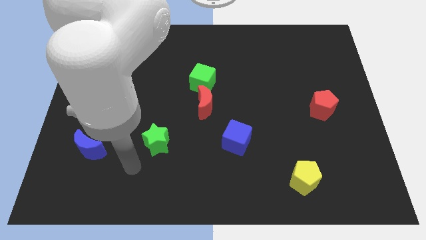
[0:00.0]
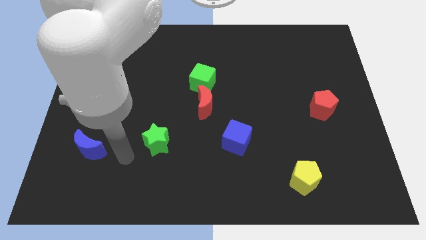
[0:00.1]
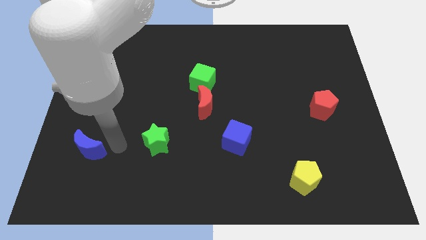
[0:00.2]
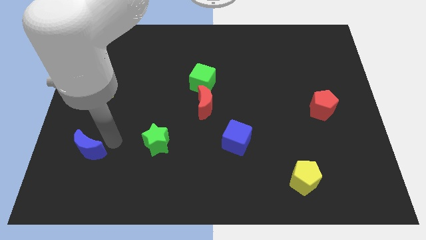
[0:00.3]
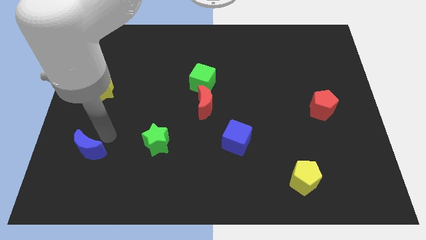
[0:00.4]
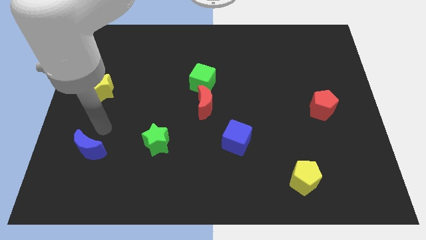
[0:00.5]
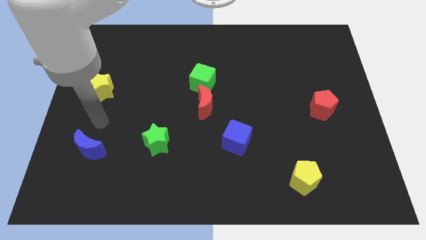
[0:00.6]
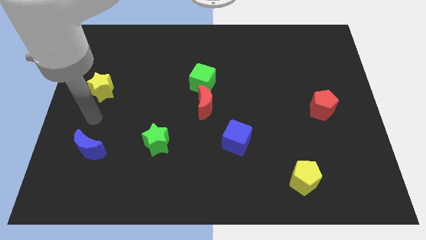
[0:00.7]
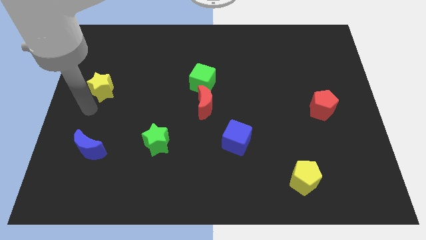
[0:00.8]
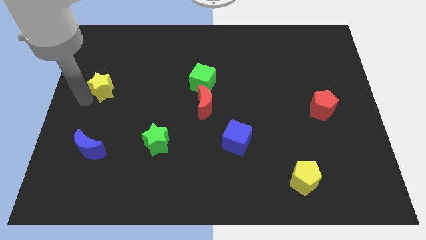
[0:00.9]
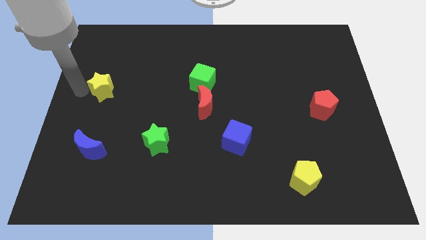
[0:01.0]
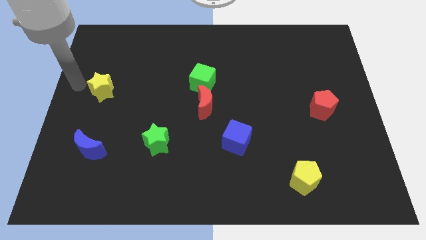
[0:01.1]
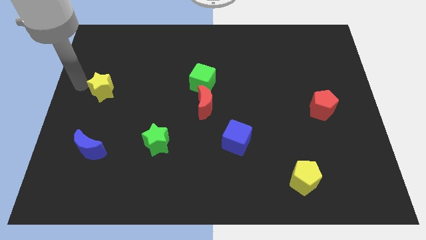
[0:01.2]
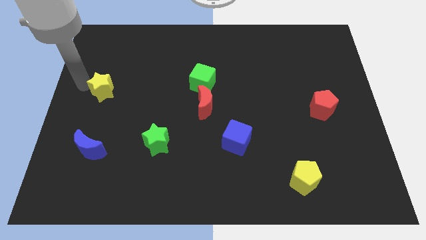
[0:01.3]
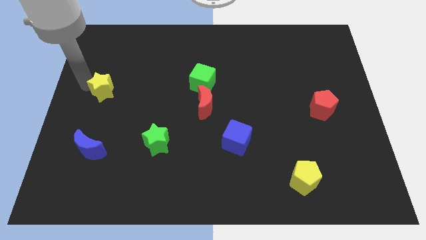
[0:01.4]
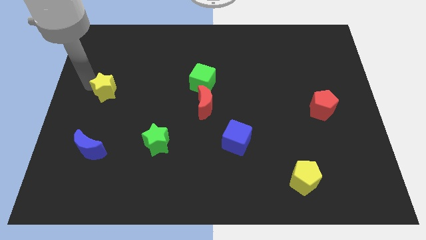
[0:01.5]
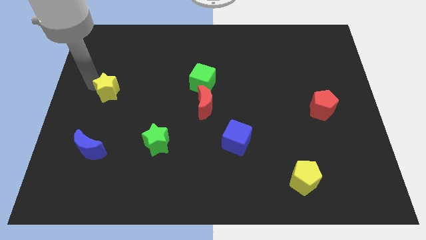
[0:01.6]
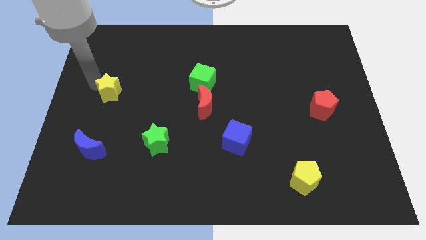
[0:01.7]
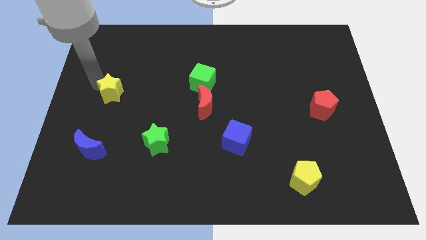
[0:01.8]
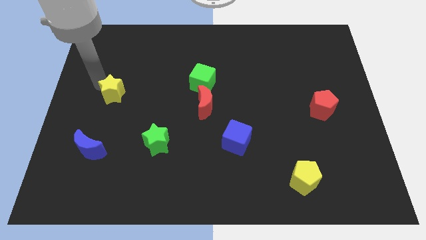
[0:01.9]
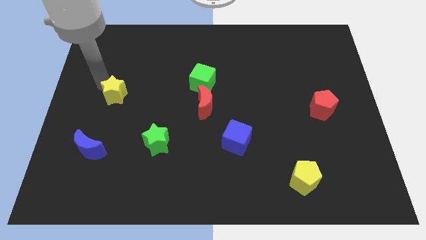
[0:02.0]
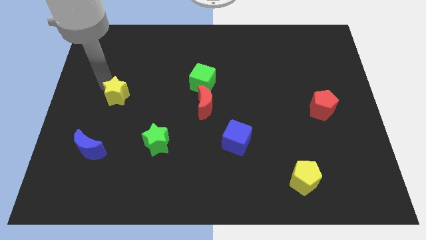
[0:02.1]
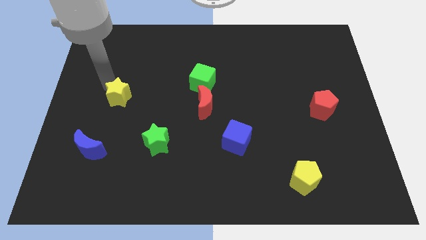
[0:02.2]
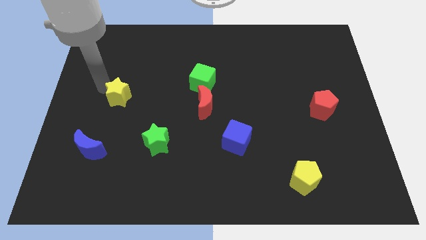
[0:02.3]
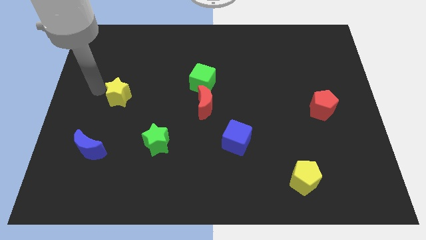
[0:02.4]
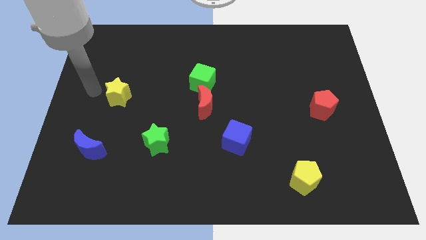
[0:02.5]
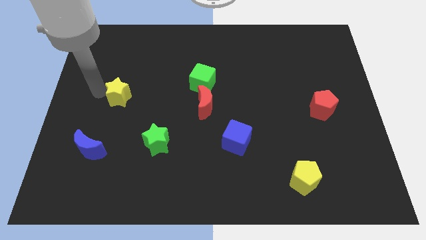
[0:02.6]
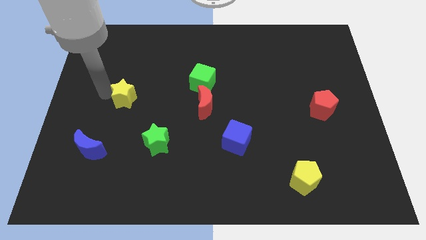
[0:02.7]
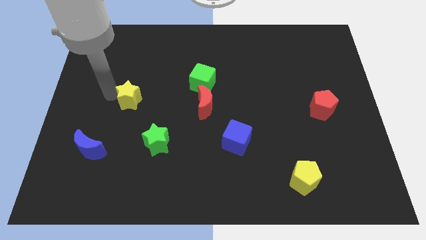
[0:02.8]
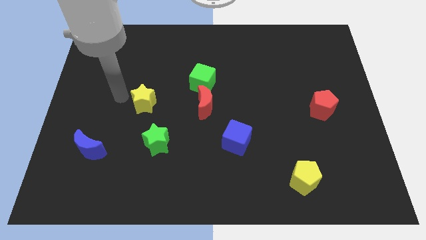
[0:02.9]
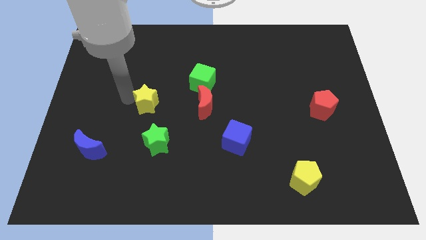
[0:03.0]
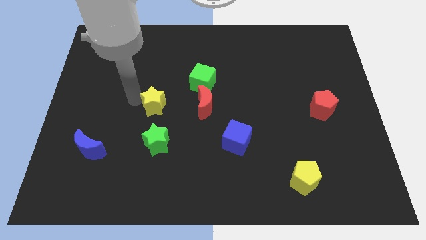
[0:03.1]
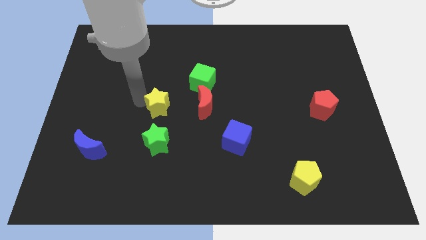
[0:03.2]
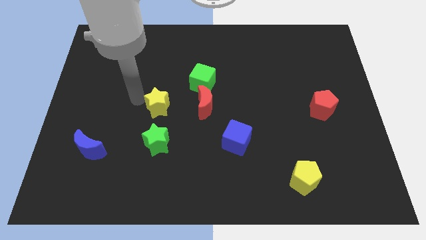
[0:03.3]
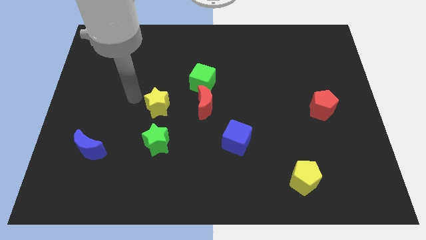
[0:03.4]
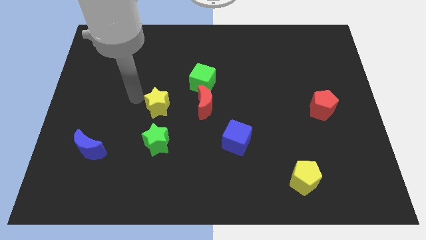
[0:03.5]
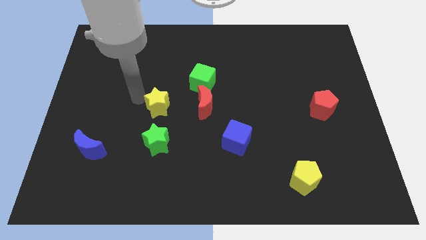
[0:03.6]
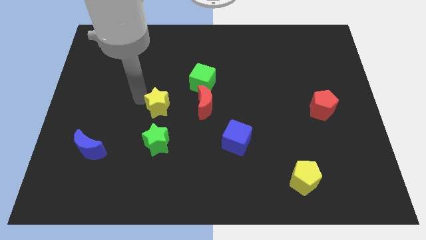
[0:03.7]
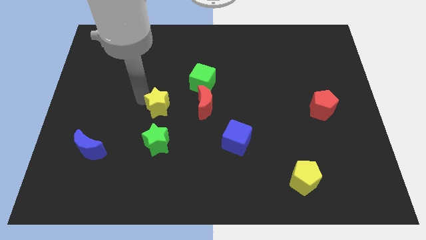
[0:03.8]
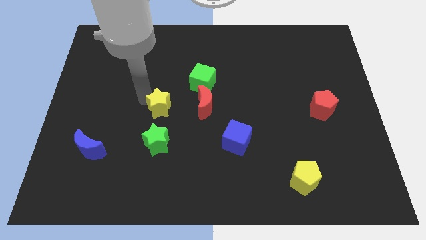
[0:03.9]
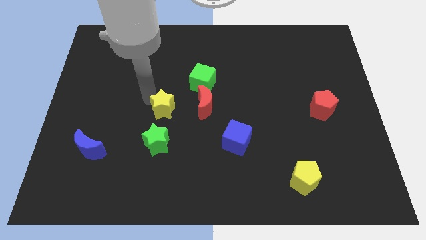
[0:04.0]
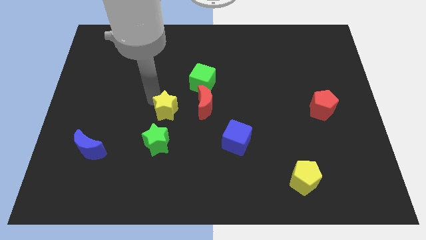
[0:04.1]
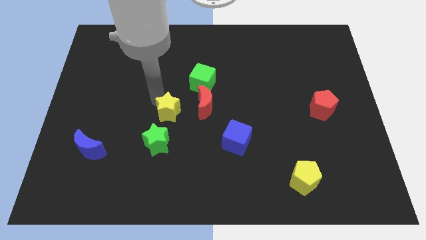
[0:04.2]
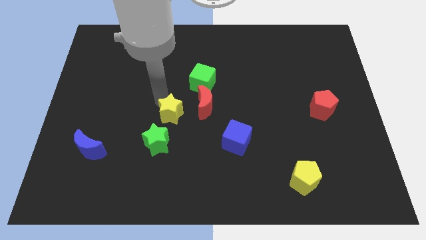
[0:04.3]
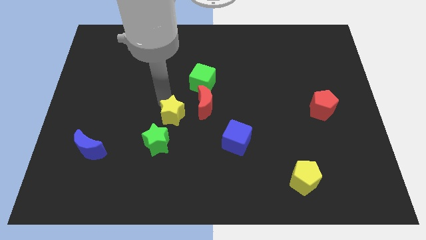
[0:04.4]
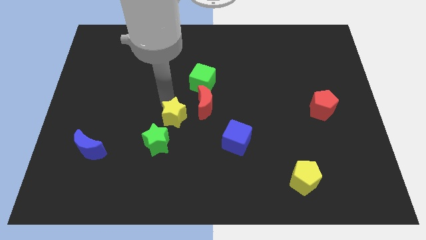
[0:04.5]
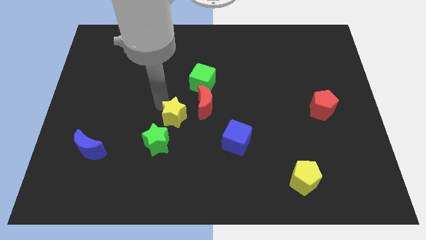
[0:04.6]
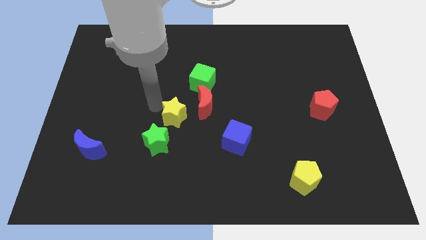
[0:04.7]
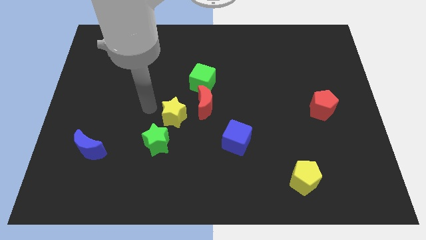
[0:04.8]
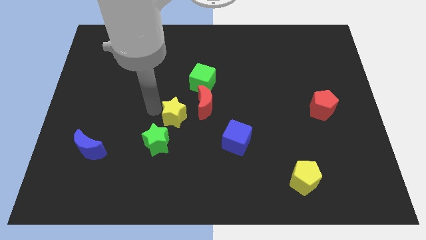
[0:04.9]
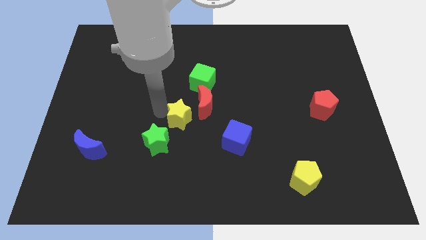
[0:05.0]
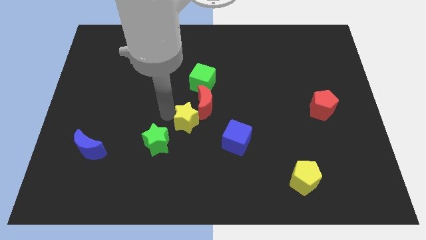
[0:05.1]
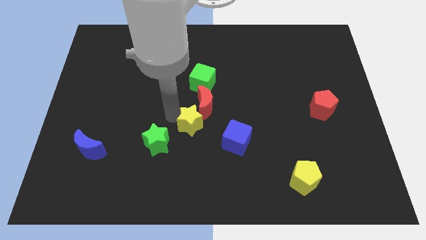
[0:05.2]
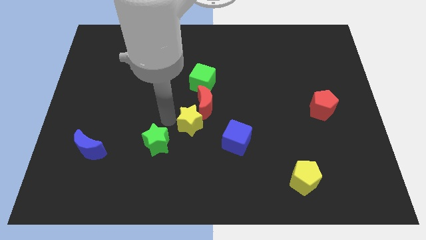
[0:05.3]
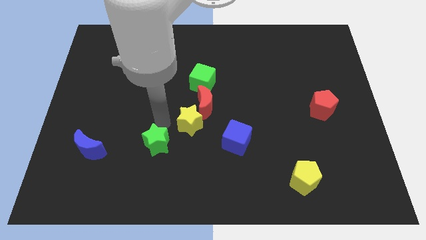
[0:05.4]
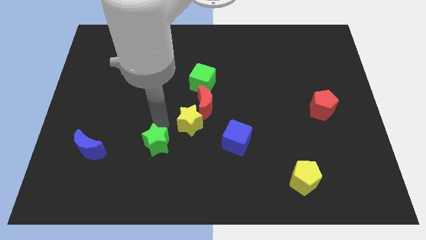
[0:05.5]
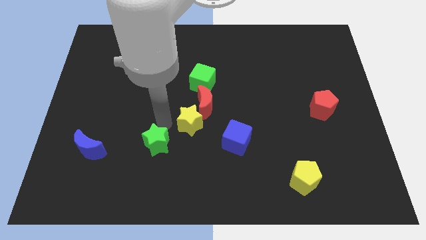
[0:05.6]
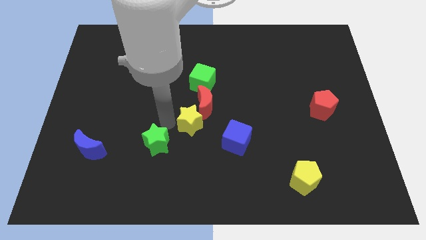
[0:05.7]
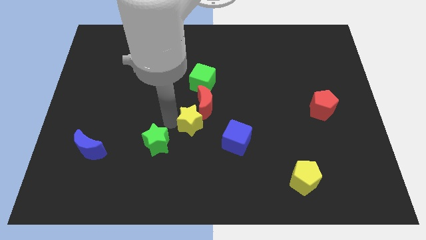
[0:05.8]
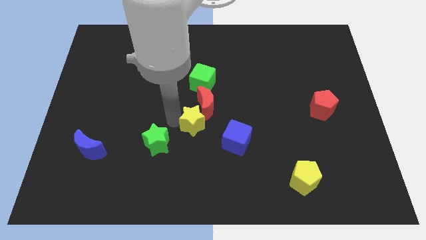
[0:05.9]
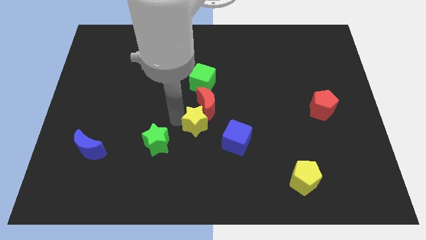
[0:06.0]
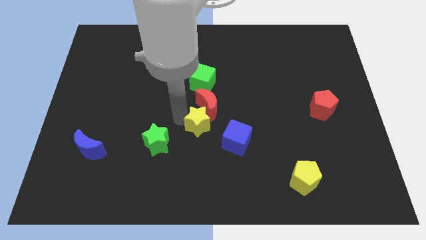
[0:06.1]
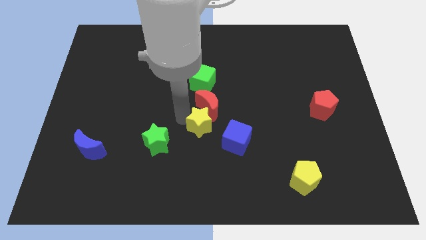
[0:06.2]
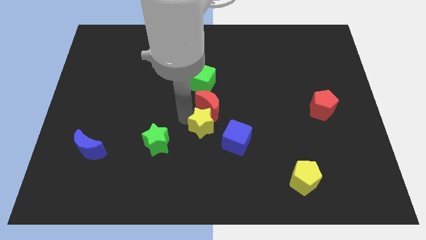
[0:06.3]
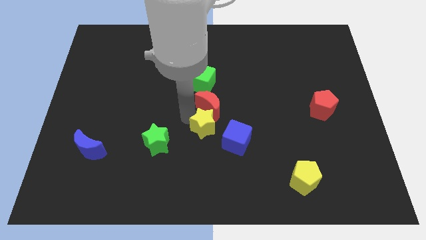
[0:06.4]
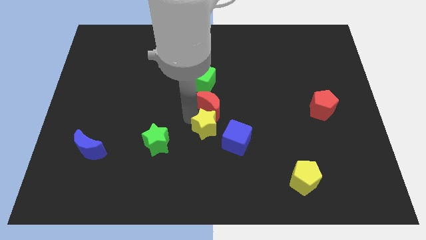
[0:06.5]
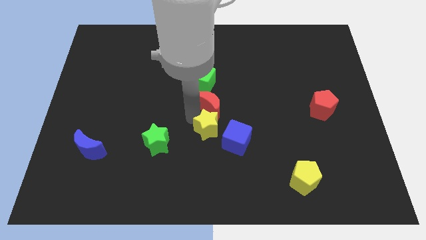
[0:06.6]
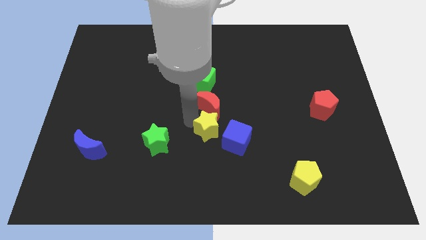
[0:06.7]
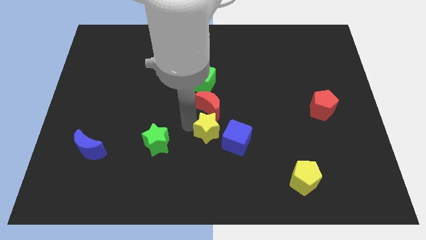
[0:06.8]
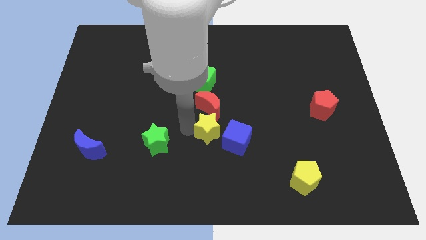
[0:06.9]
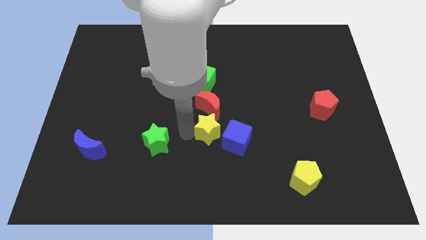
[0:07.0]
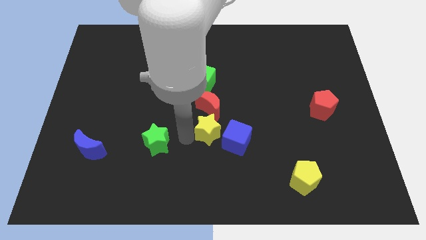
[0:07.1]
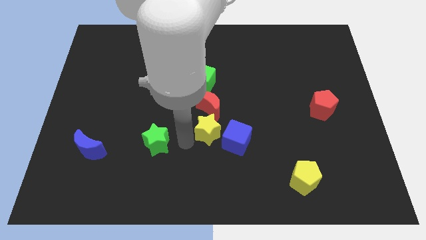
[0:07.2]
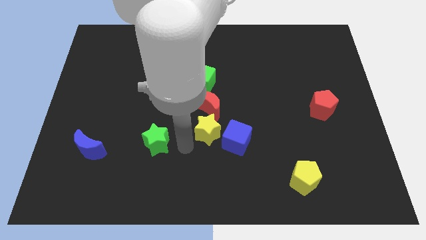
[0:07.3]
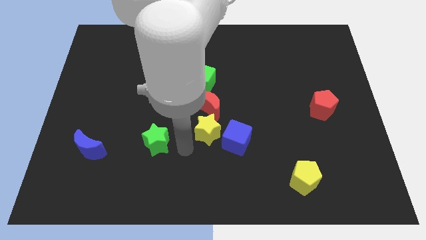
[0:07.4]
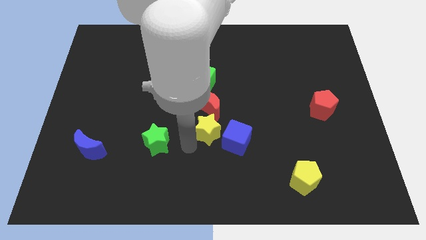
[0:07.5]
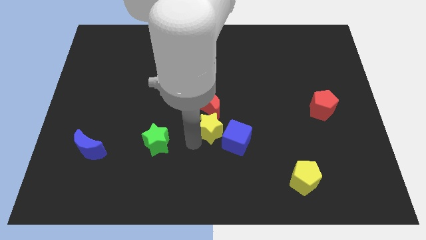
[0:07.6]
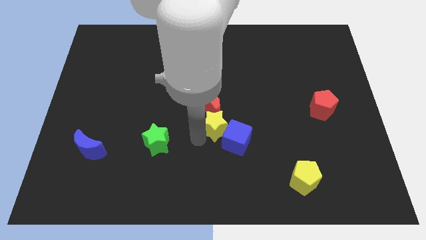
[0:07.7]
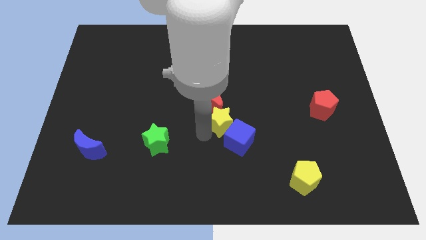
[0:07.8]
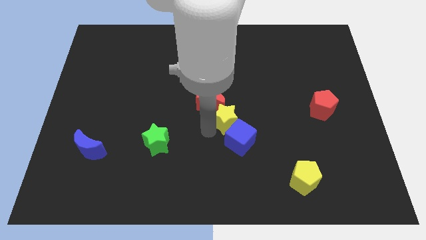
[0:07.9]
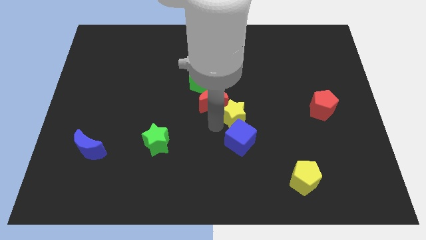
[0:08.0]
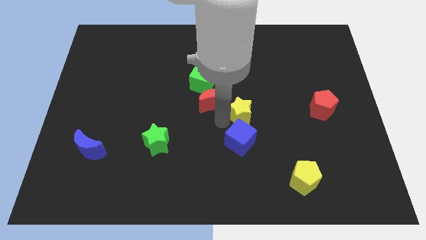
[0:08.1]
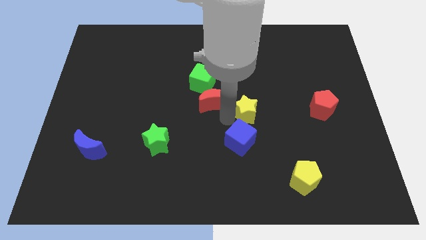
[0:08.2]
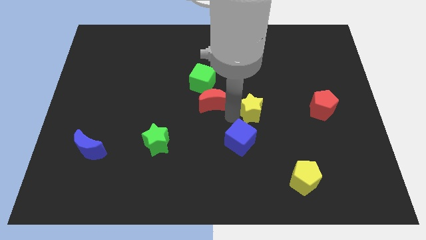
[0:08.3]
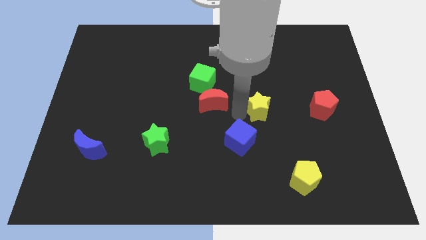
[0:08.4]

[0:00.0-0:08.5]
put the yellow star just left of the red pentagon
